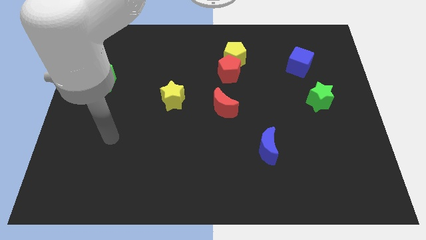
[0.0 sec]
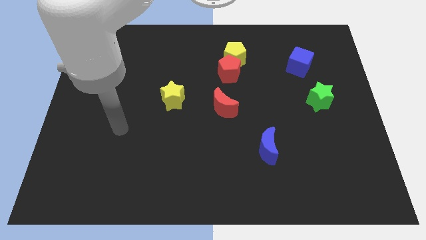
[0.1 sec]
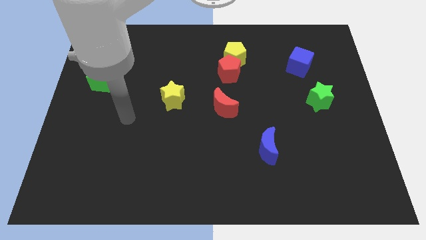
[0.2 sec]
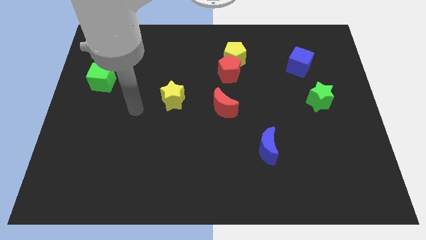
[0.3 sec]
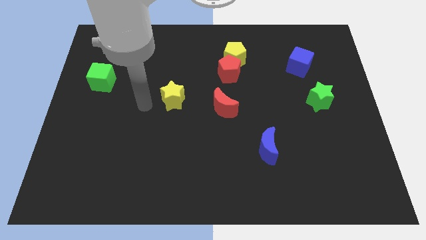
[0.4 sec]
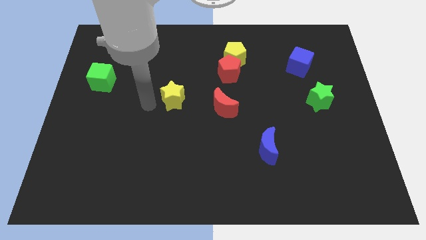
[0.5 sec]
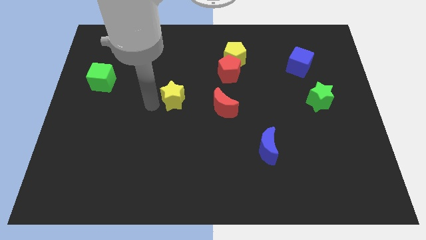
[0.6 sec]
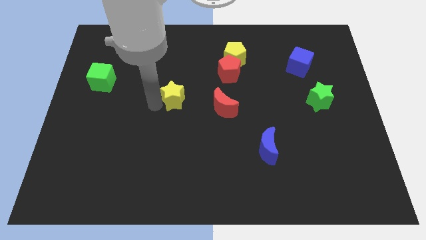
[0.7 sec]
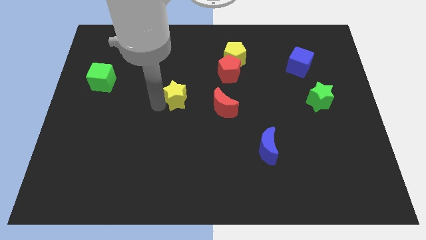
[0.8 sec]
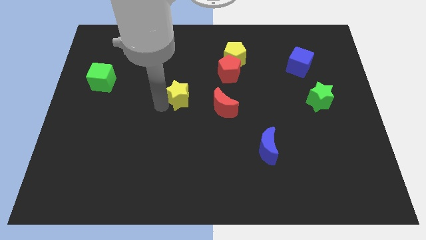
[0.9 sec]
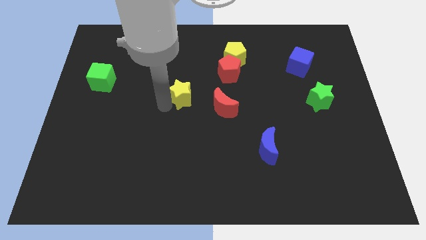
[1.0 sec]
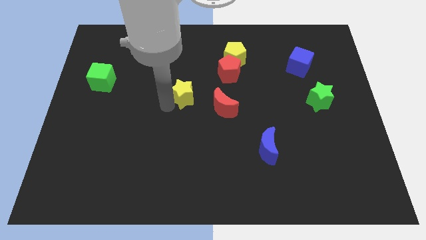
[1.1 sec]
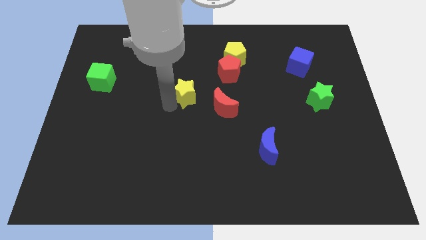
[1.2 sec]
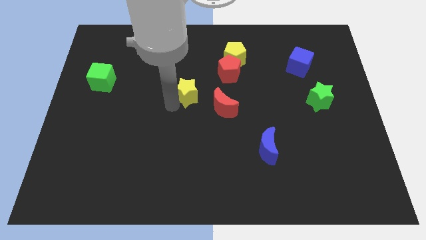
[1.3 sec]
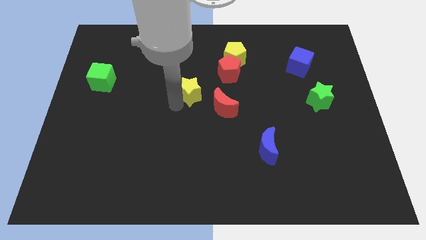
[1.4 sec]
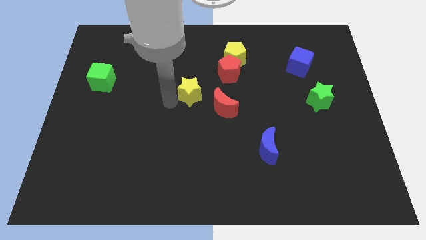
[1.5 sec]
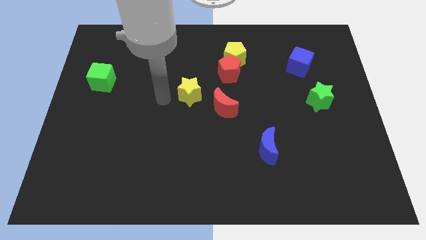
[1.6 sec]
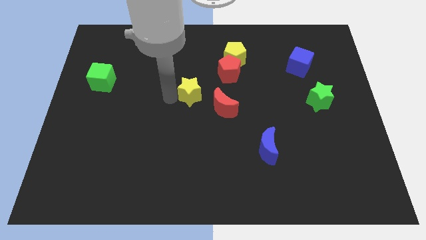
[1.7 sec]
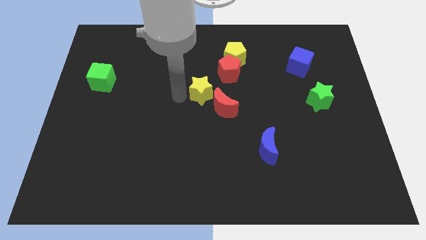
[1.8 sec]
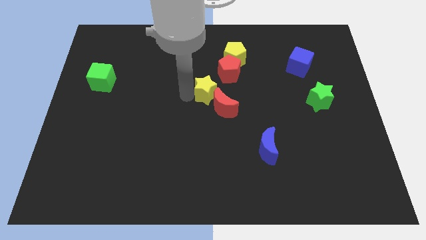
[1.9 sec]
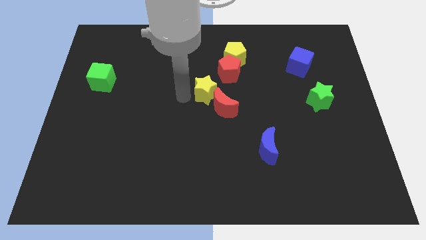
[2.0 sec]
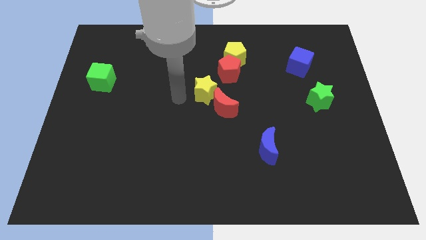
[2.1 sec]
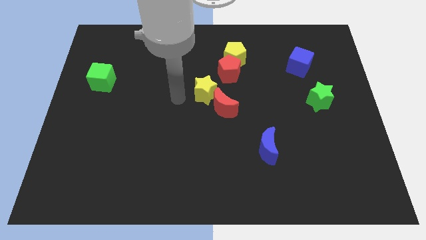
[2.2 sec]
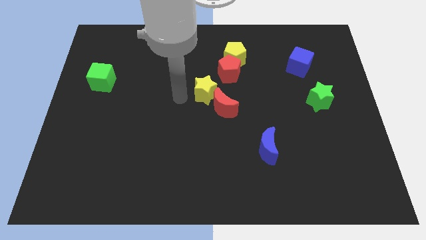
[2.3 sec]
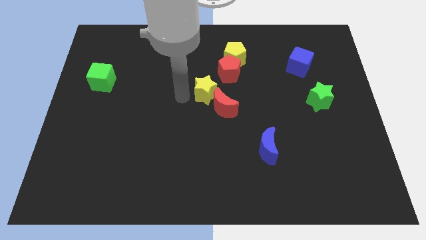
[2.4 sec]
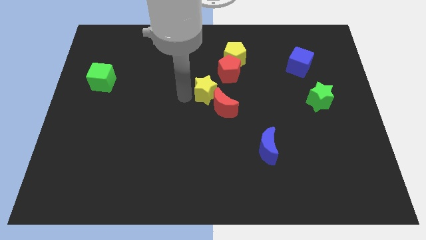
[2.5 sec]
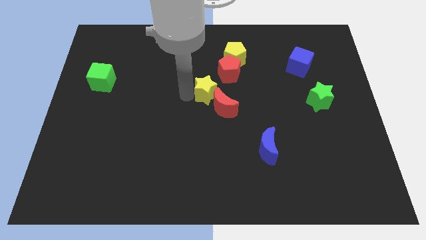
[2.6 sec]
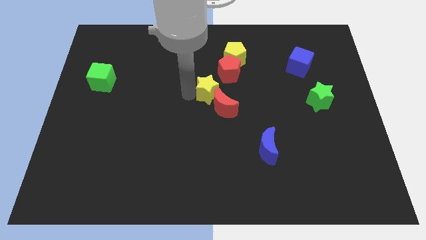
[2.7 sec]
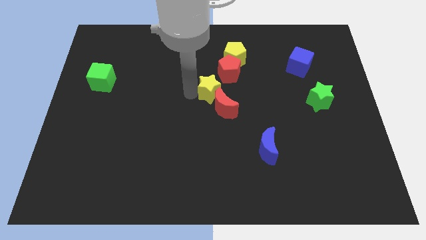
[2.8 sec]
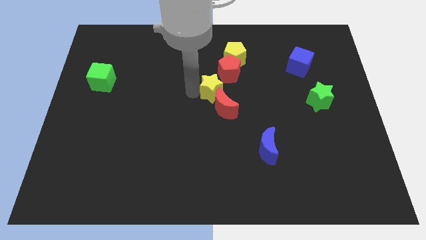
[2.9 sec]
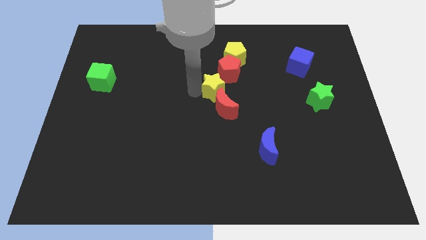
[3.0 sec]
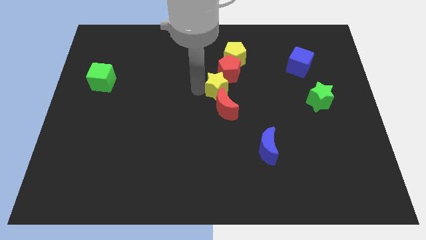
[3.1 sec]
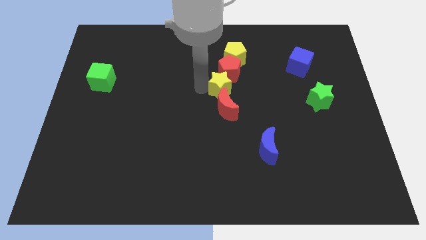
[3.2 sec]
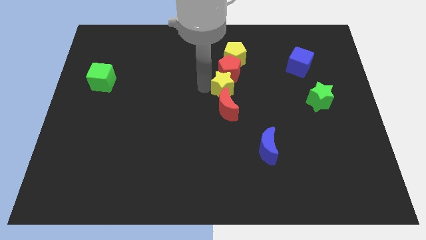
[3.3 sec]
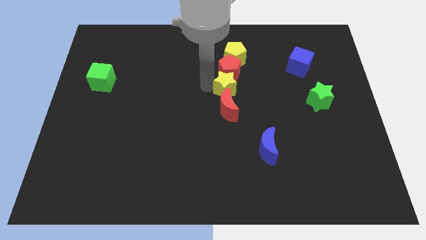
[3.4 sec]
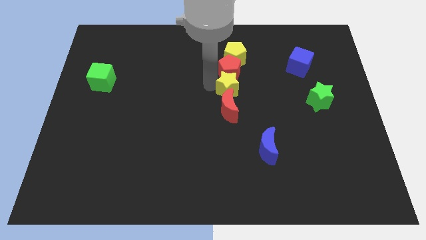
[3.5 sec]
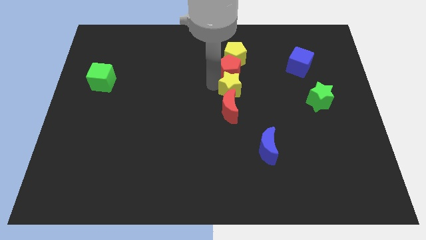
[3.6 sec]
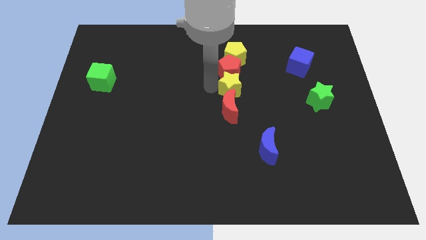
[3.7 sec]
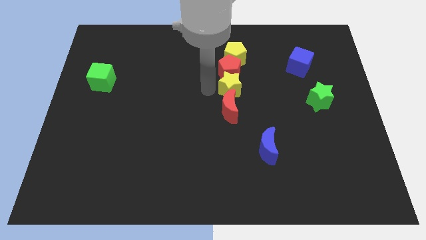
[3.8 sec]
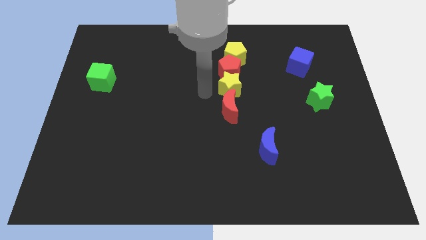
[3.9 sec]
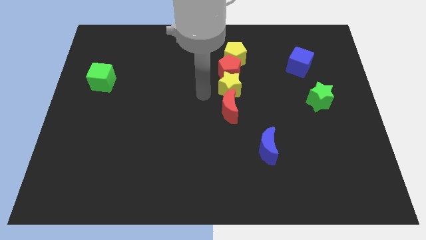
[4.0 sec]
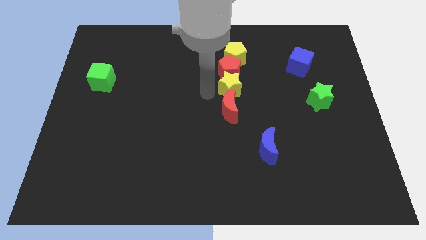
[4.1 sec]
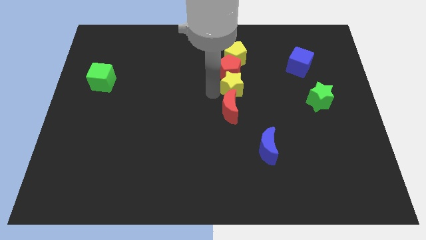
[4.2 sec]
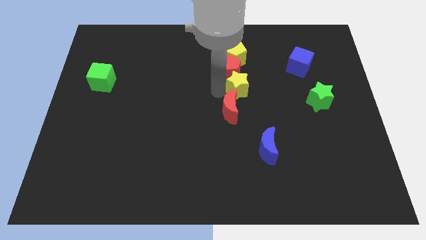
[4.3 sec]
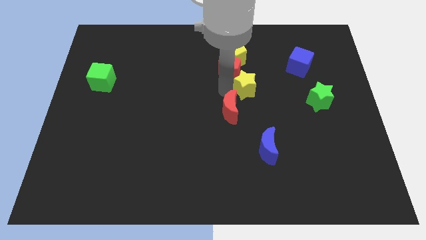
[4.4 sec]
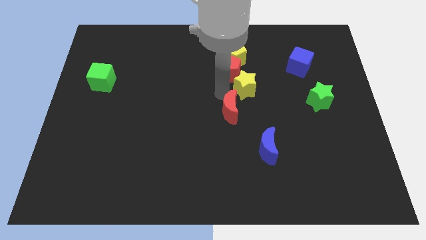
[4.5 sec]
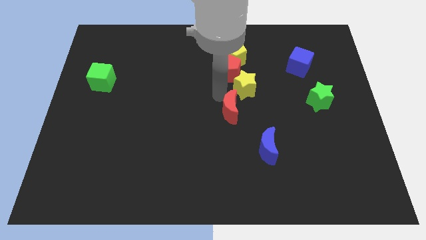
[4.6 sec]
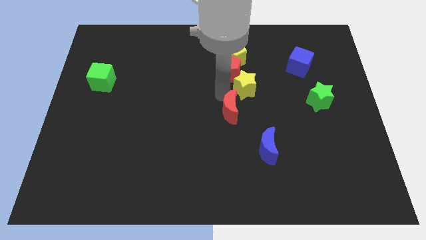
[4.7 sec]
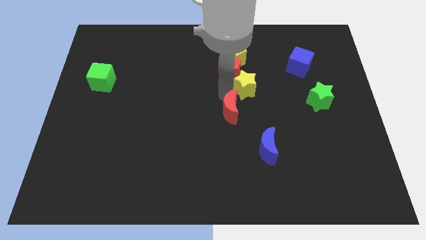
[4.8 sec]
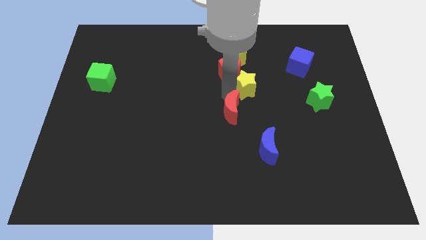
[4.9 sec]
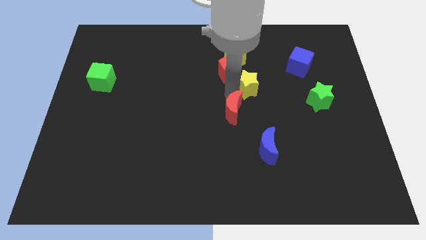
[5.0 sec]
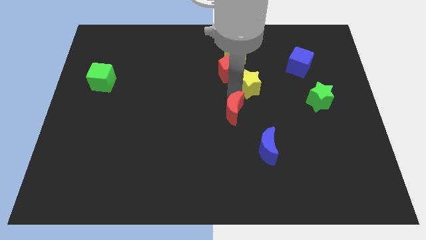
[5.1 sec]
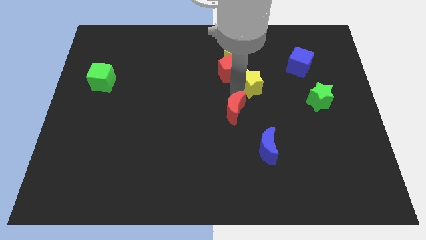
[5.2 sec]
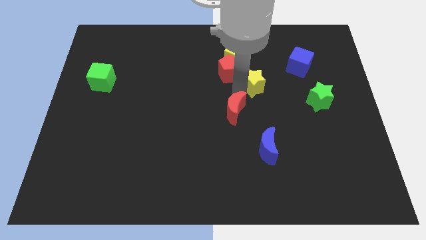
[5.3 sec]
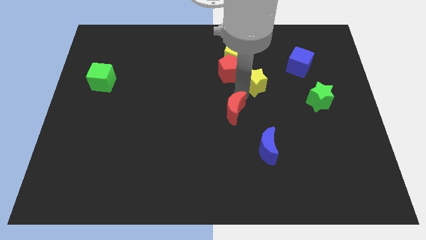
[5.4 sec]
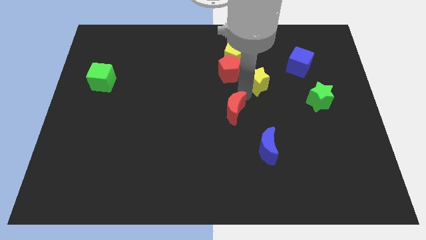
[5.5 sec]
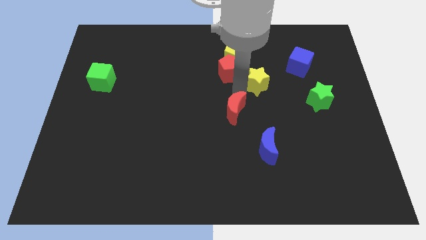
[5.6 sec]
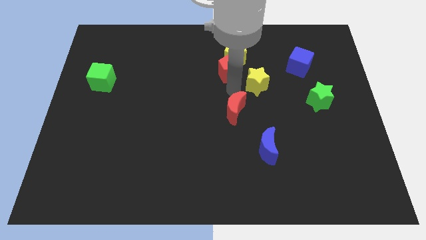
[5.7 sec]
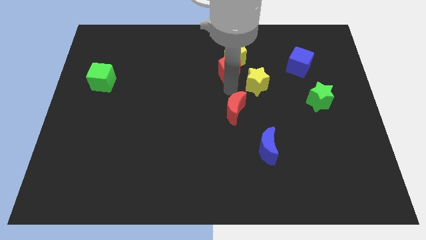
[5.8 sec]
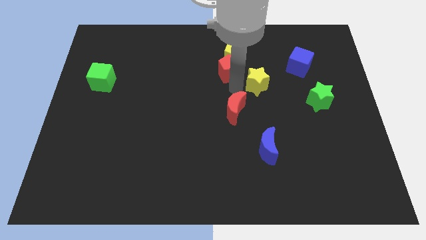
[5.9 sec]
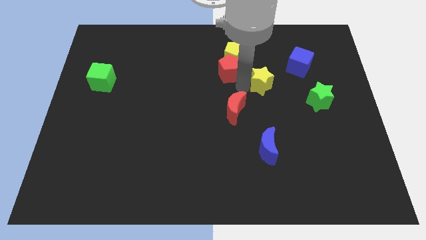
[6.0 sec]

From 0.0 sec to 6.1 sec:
move the yellow star to the bottom left of the blue cube
